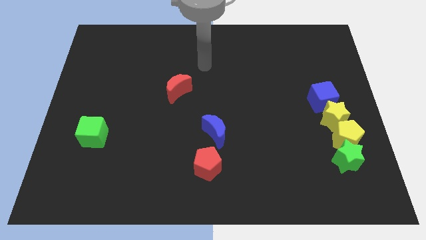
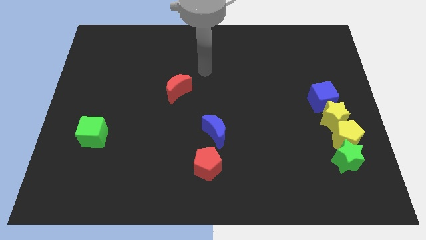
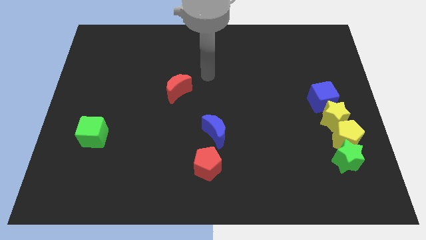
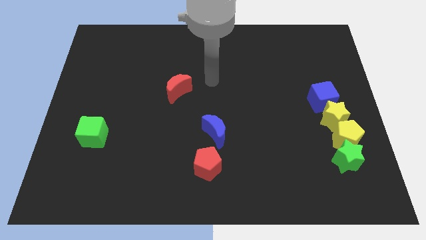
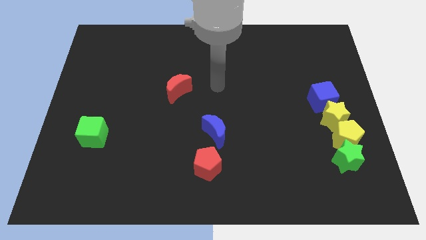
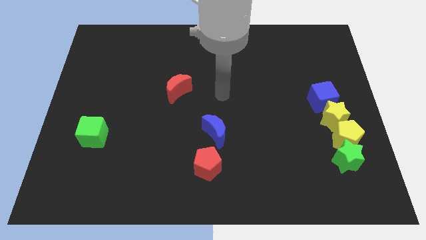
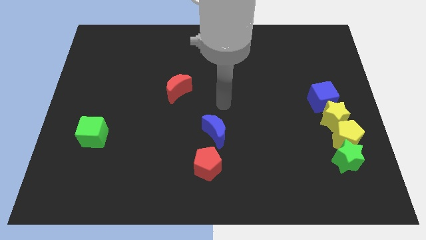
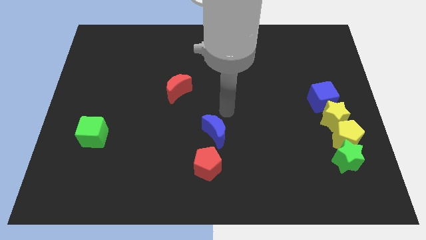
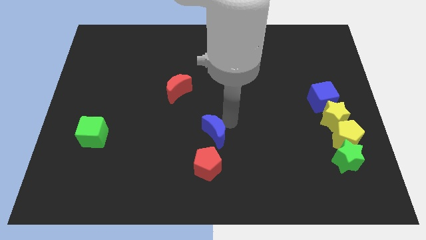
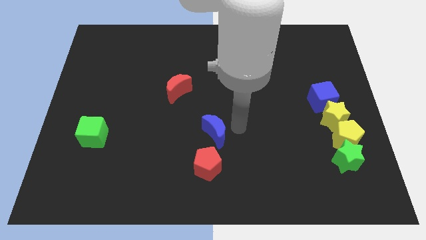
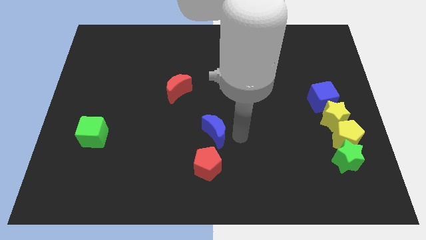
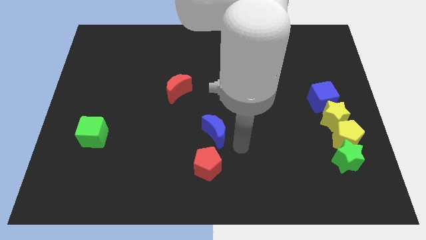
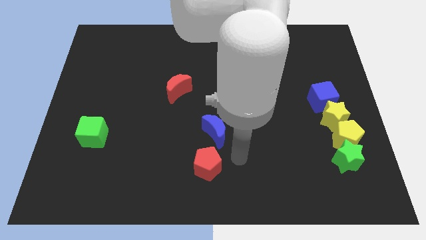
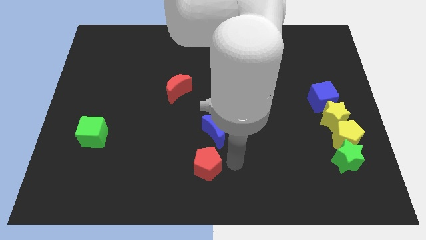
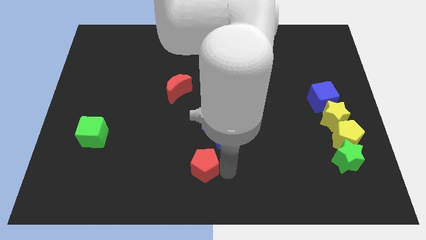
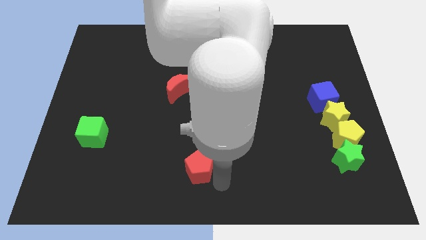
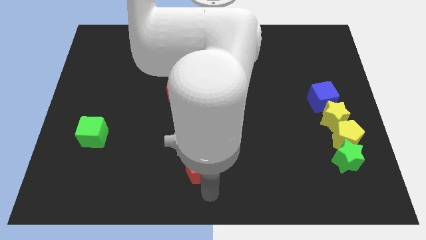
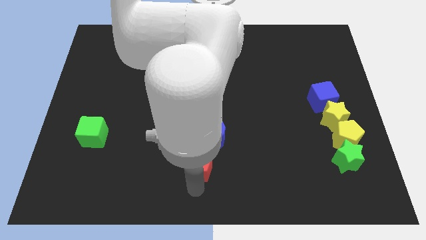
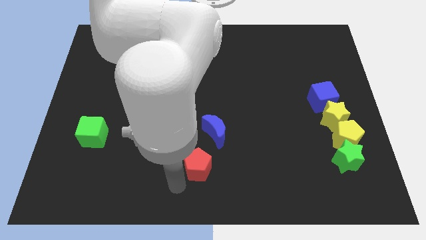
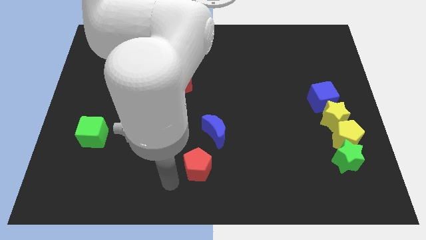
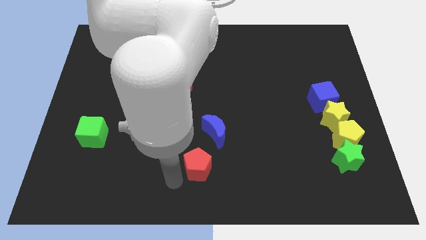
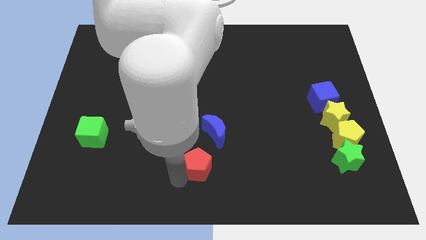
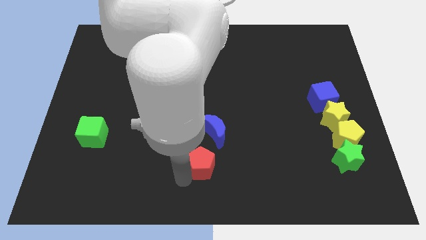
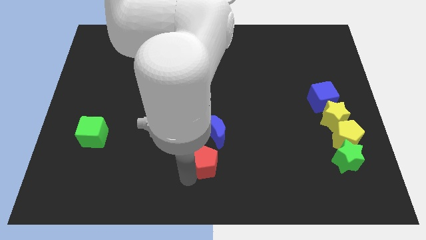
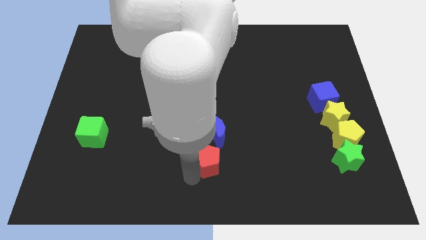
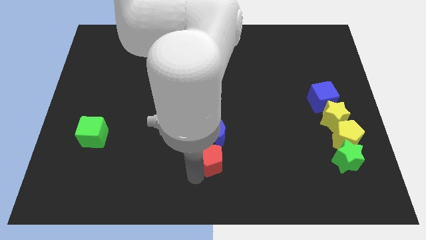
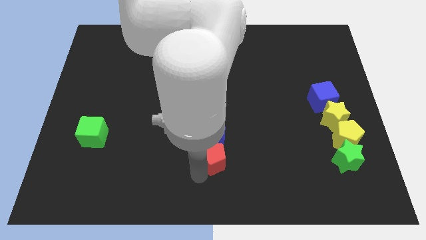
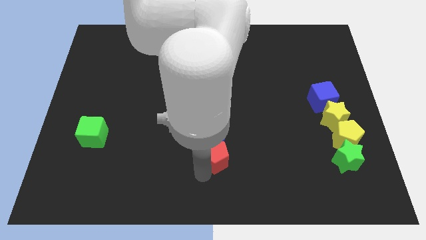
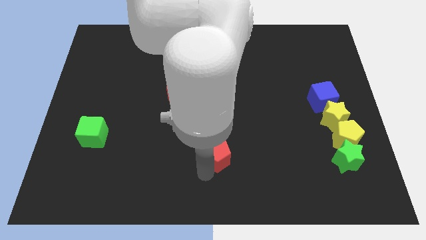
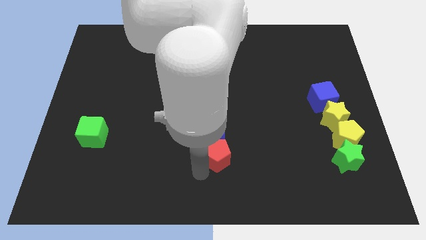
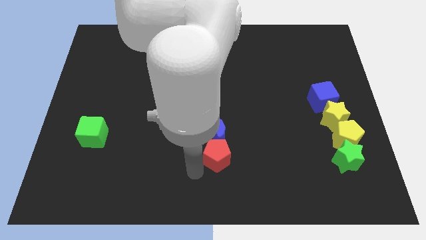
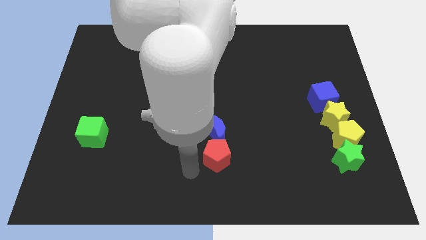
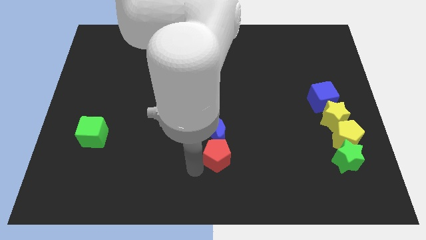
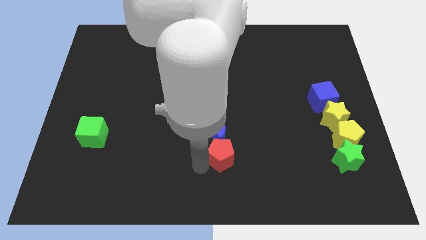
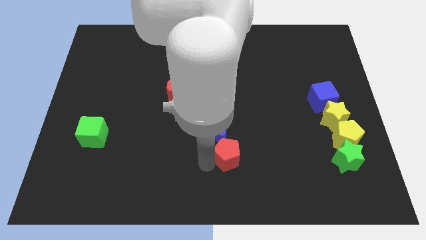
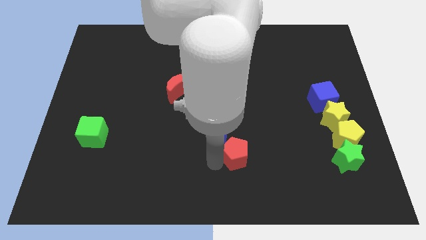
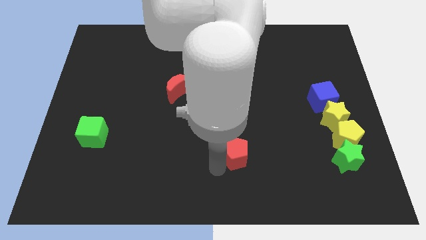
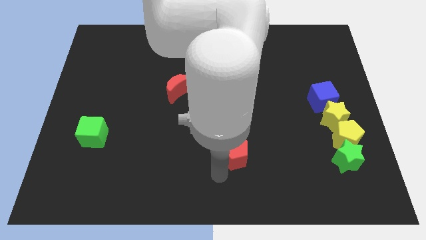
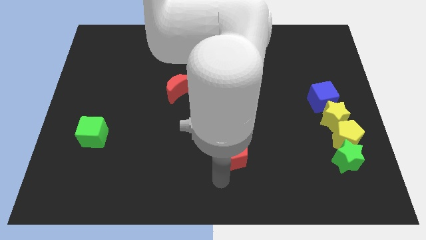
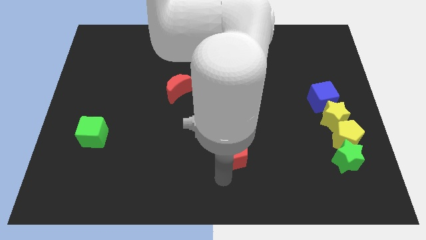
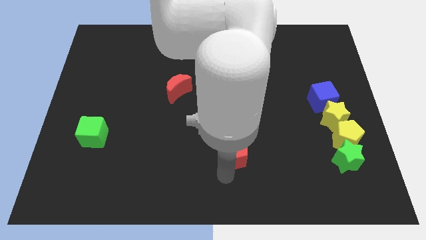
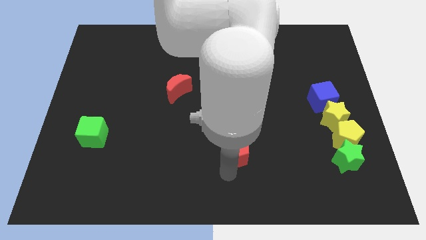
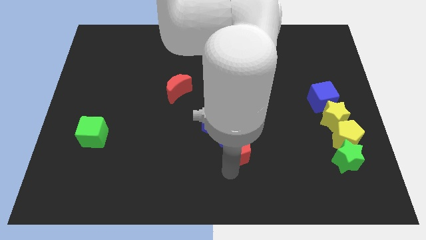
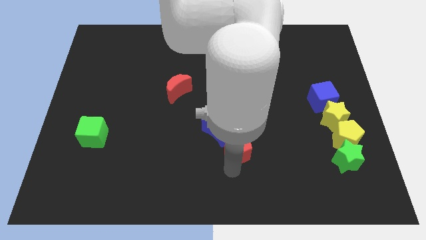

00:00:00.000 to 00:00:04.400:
slightly slide the red pentagon diagonally up and right

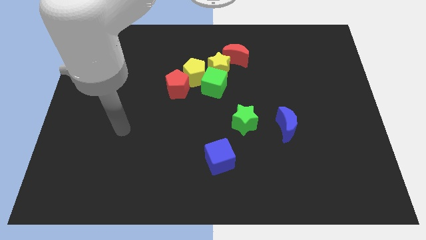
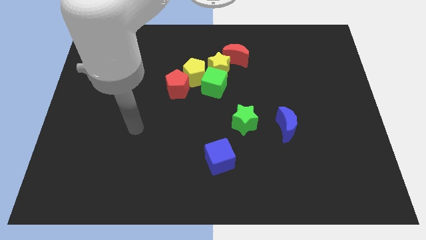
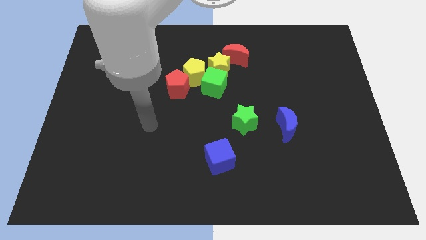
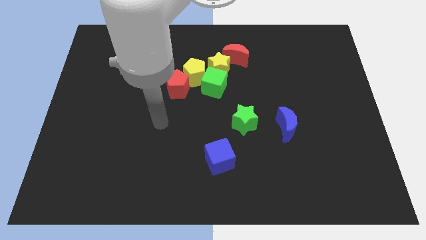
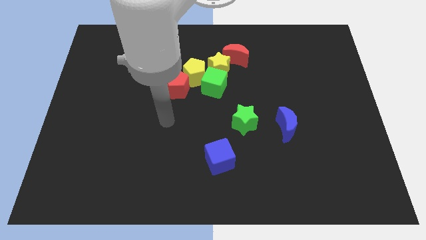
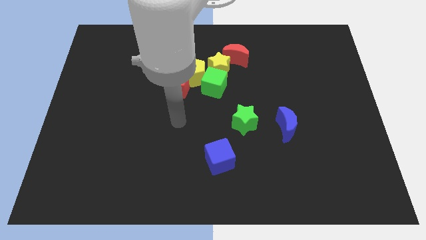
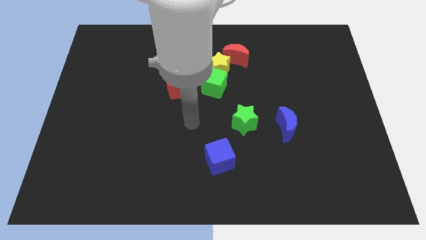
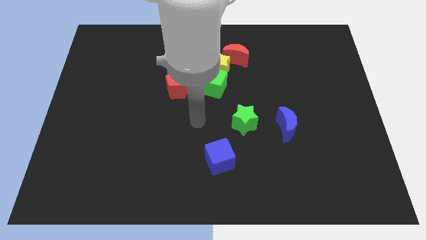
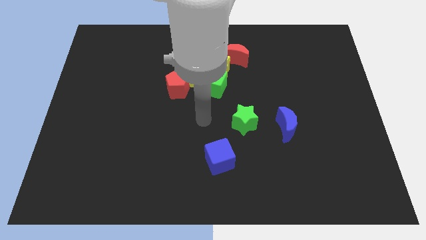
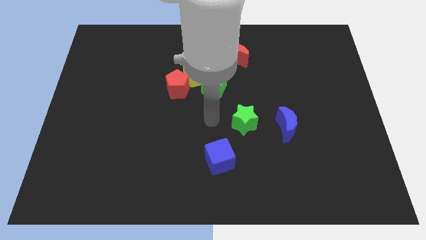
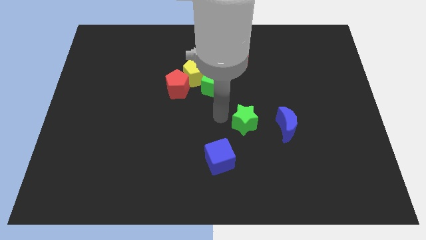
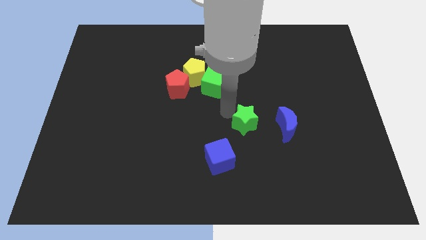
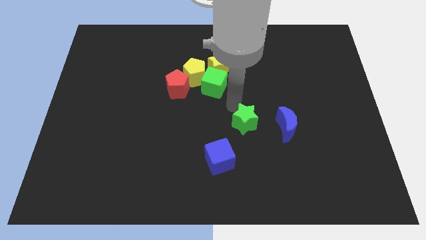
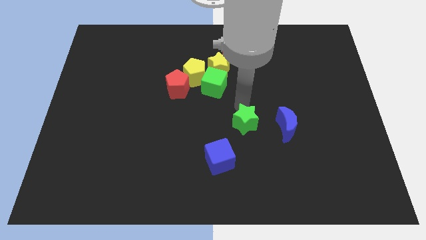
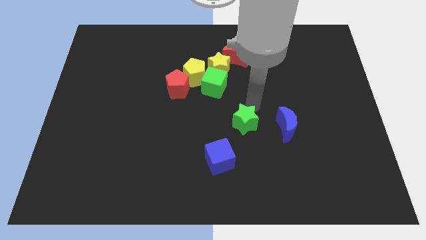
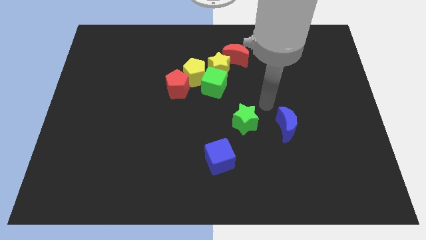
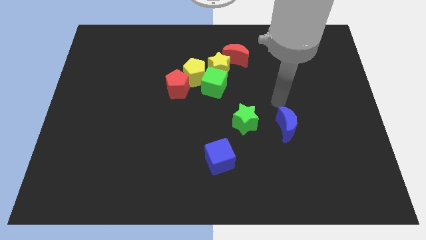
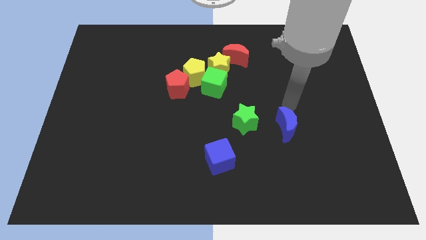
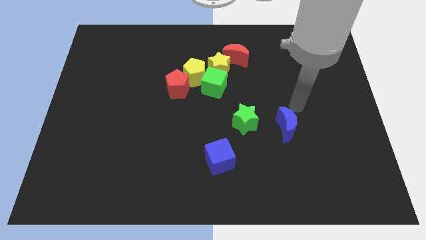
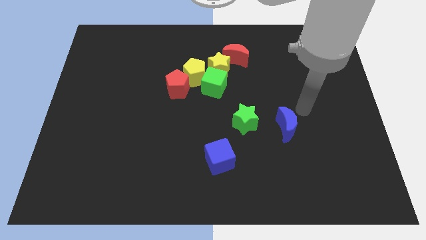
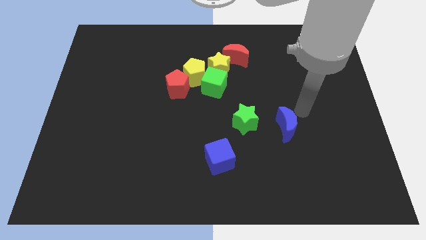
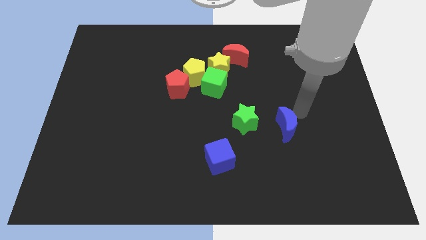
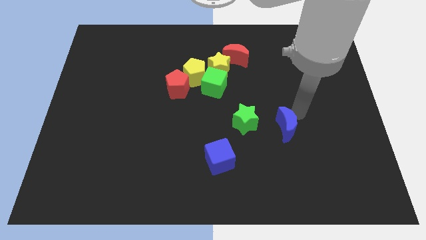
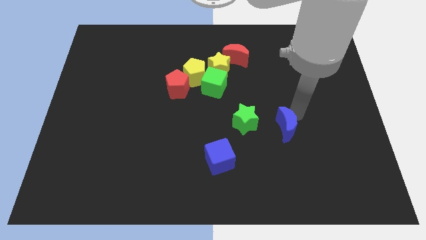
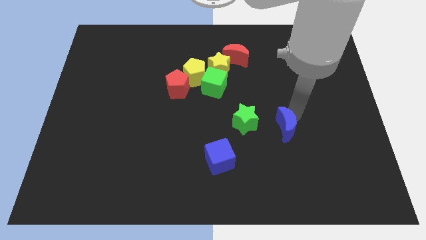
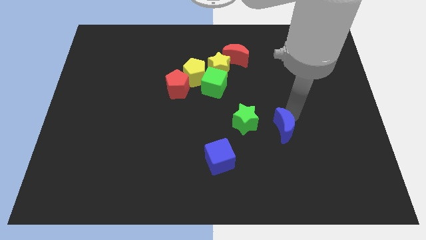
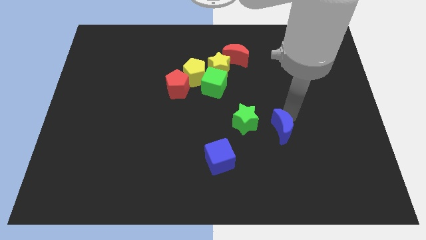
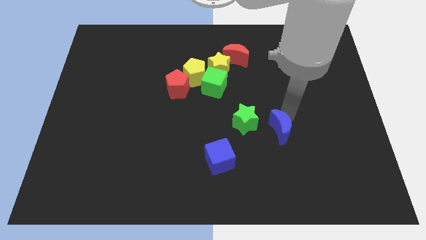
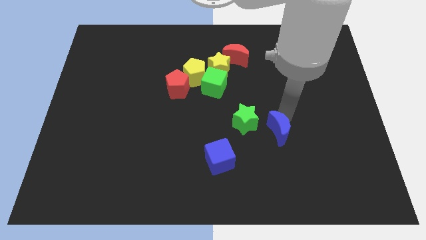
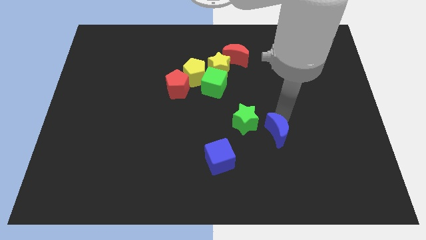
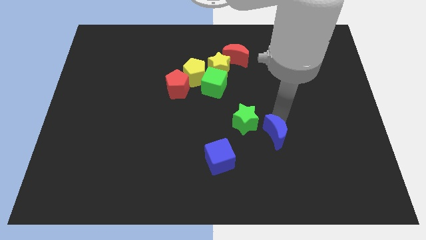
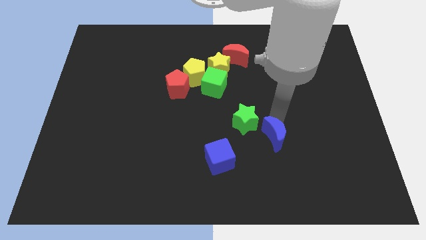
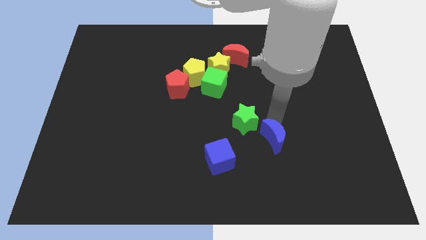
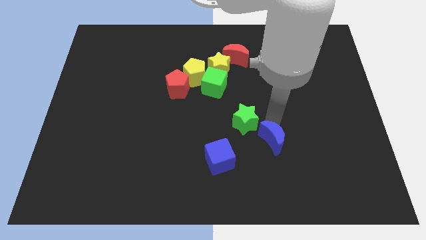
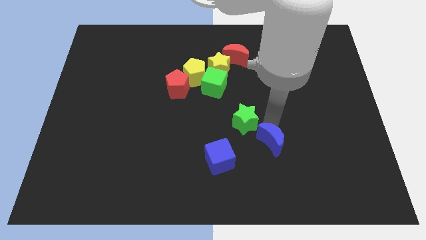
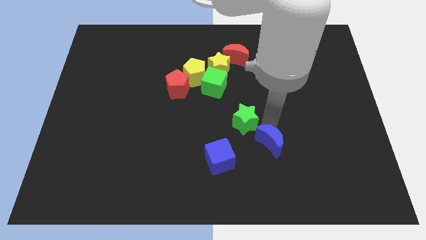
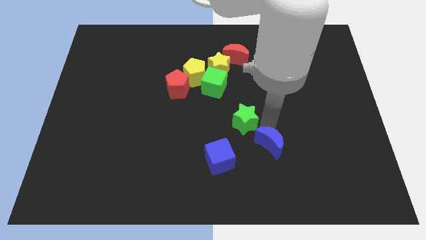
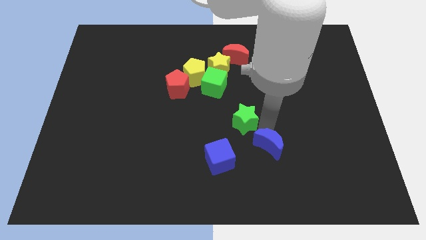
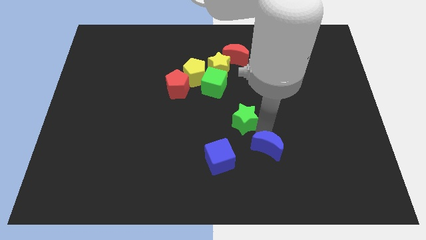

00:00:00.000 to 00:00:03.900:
slide the blue moon slightly down and to the left diagonally
